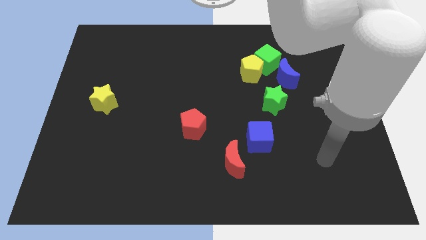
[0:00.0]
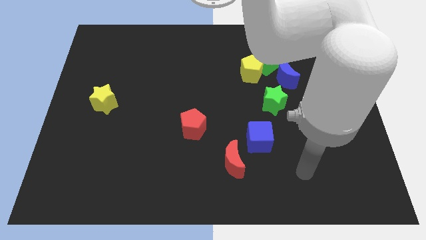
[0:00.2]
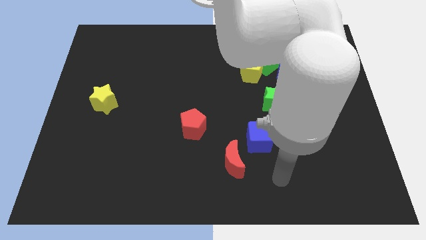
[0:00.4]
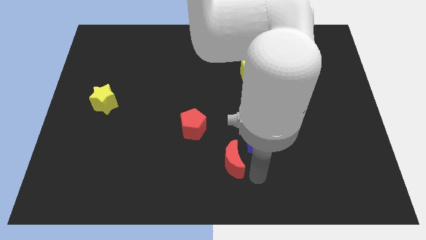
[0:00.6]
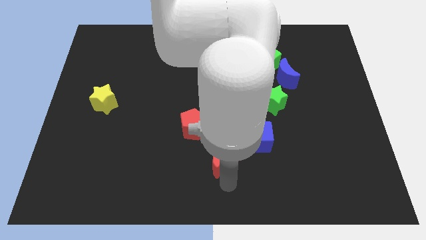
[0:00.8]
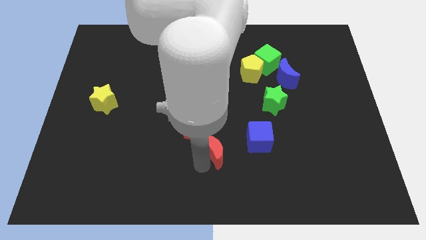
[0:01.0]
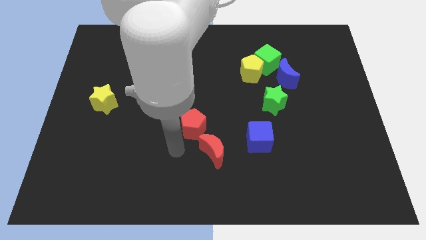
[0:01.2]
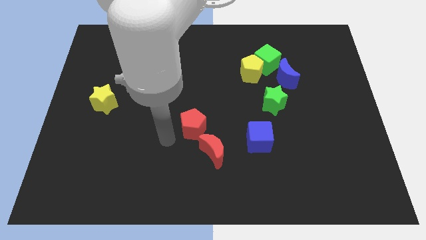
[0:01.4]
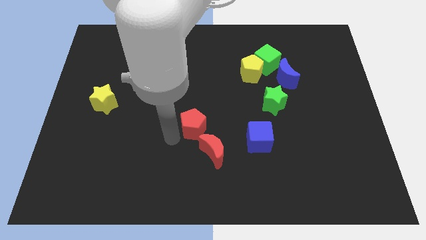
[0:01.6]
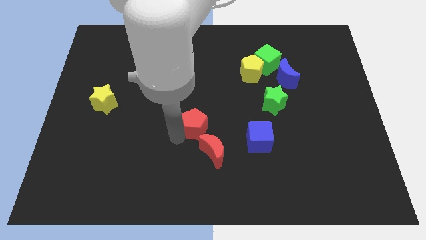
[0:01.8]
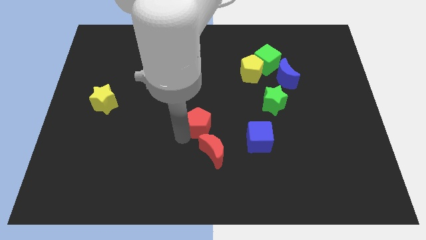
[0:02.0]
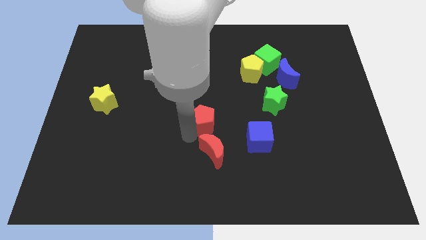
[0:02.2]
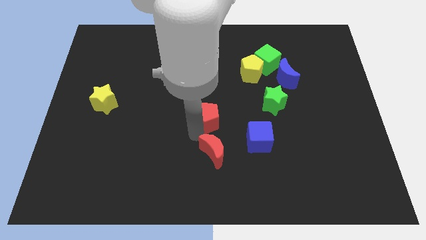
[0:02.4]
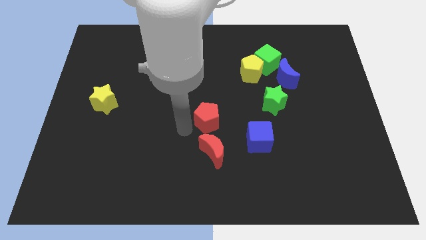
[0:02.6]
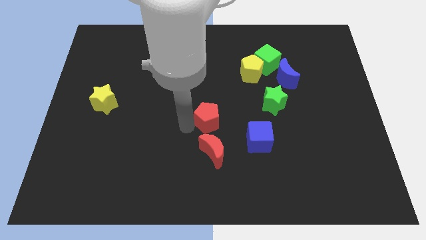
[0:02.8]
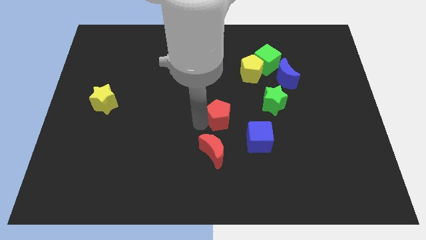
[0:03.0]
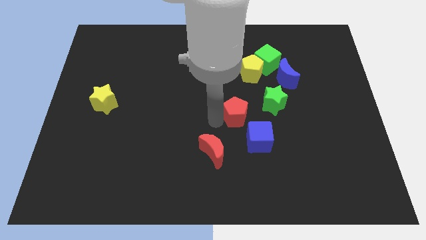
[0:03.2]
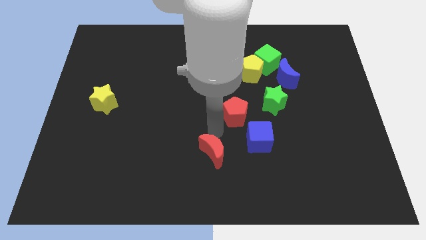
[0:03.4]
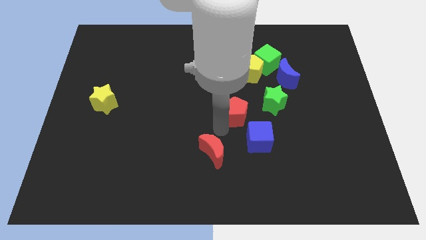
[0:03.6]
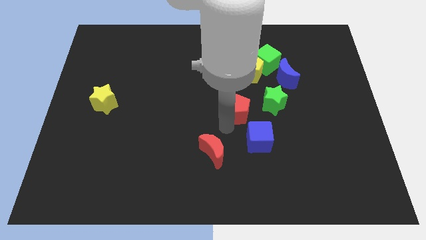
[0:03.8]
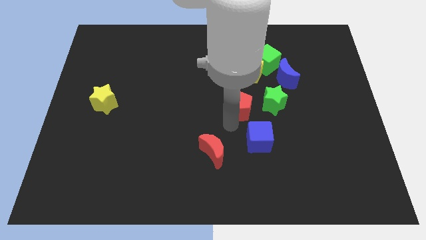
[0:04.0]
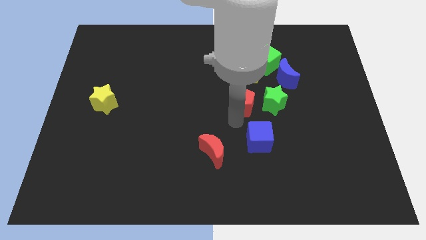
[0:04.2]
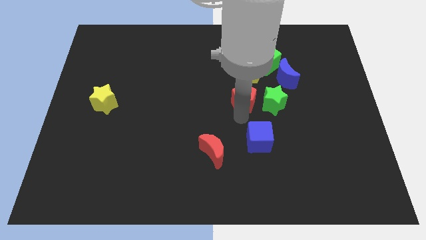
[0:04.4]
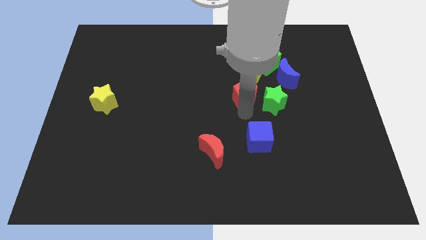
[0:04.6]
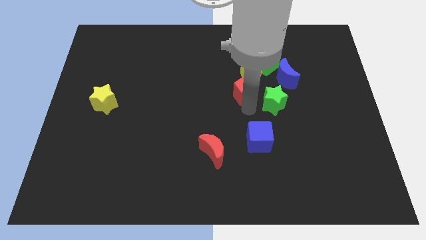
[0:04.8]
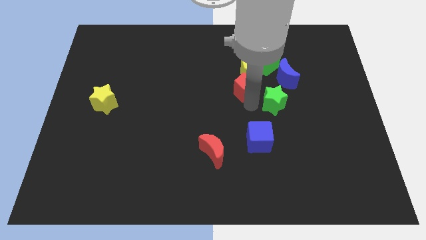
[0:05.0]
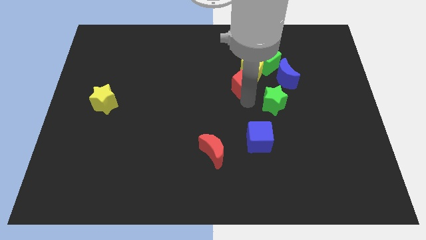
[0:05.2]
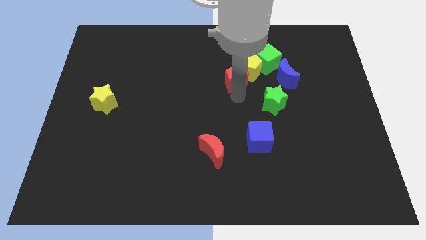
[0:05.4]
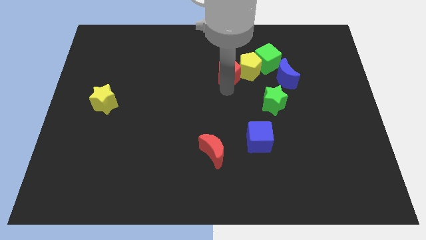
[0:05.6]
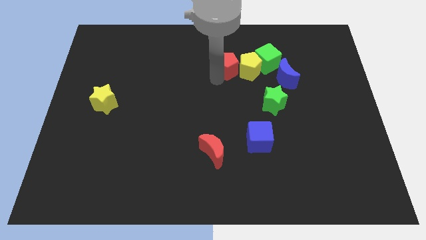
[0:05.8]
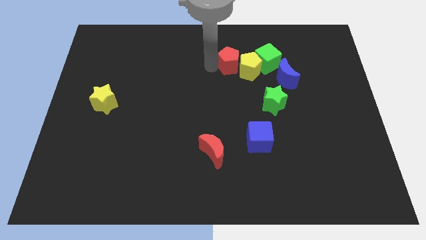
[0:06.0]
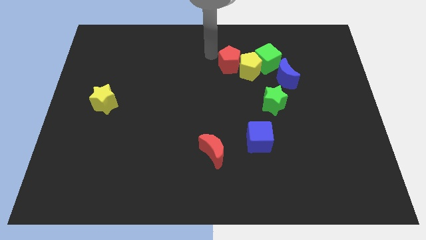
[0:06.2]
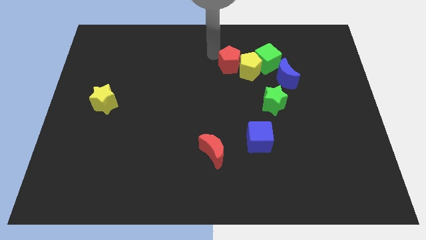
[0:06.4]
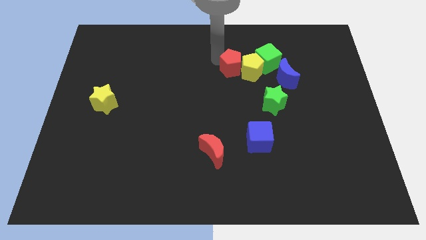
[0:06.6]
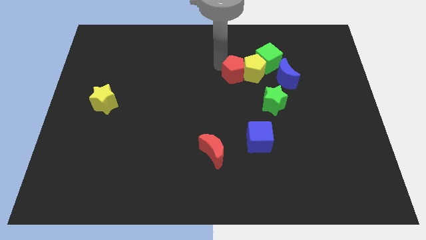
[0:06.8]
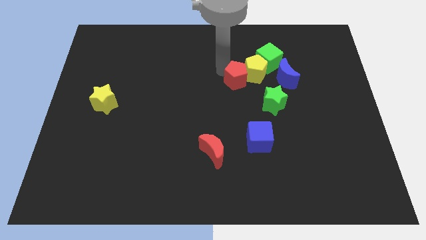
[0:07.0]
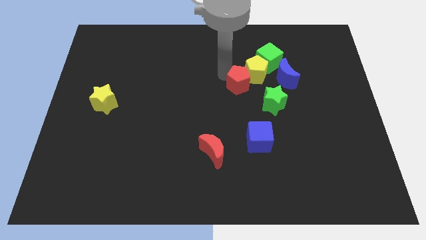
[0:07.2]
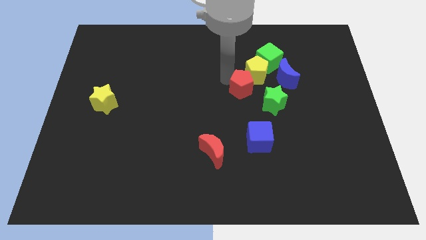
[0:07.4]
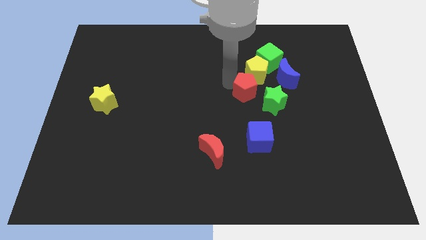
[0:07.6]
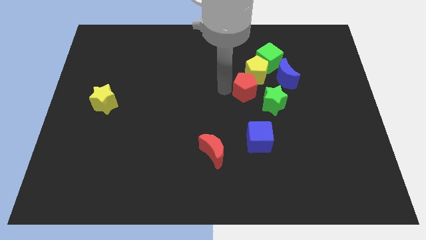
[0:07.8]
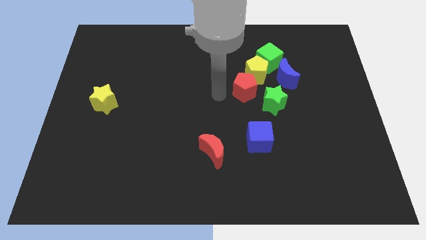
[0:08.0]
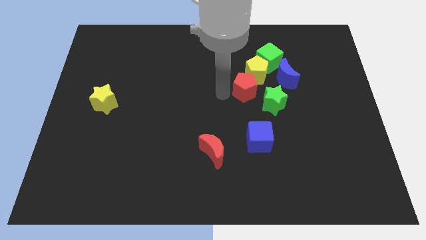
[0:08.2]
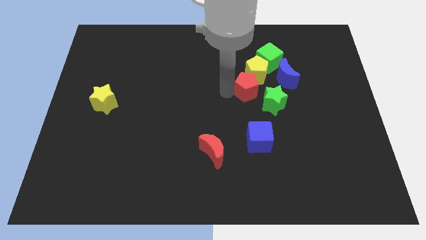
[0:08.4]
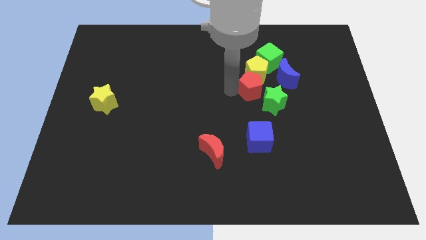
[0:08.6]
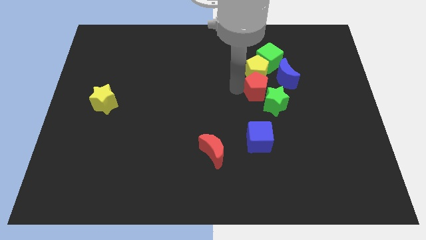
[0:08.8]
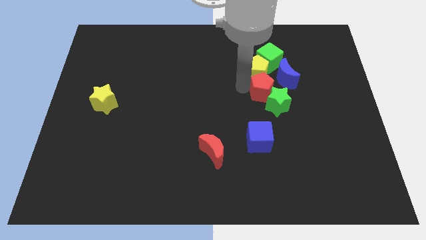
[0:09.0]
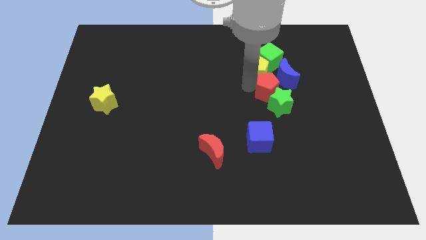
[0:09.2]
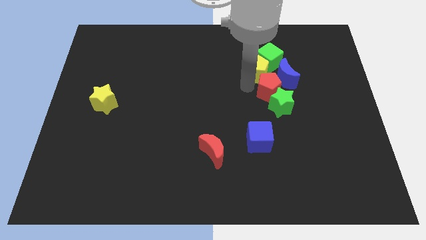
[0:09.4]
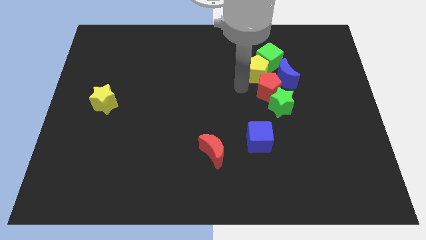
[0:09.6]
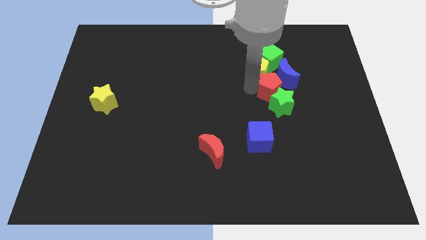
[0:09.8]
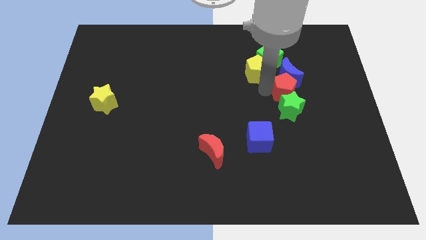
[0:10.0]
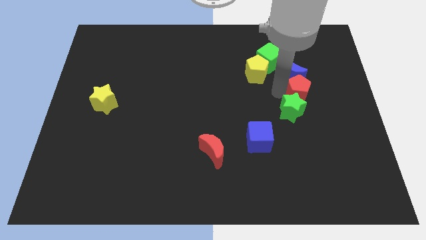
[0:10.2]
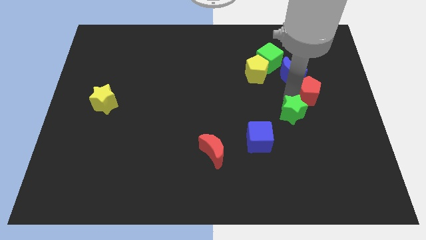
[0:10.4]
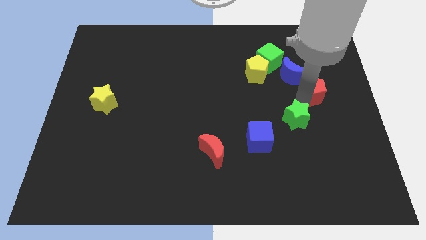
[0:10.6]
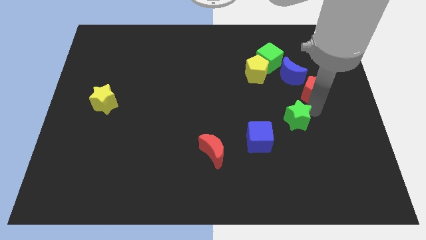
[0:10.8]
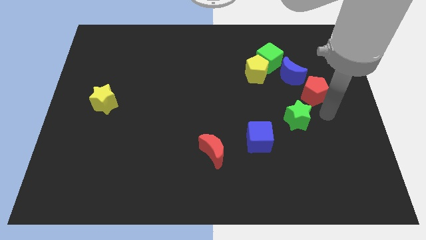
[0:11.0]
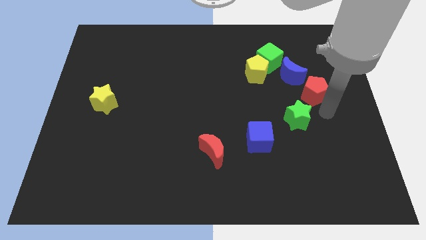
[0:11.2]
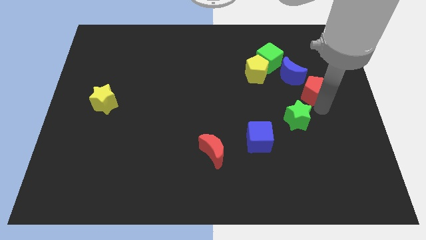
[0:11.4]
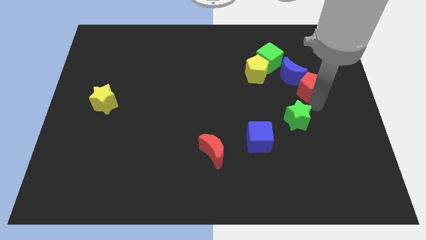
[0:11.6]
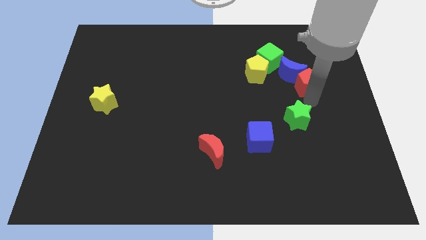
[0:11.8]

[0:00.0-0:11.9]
move the red pentagon just right of the yellow pentagon

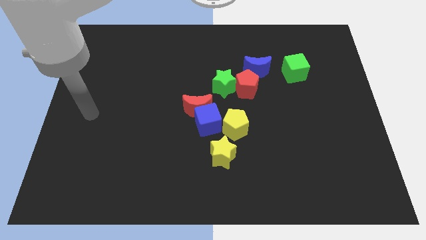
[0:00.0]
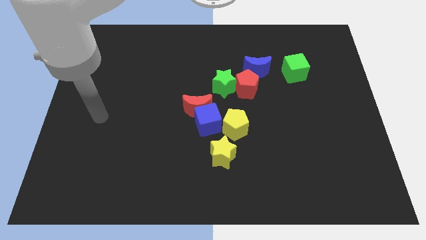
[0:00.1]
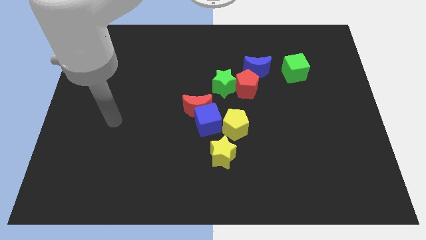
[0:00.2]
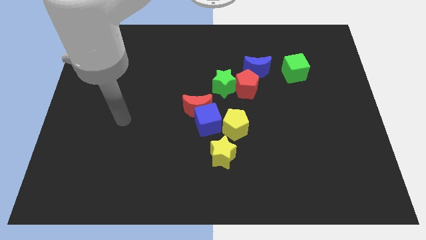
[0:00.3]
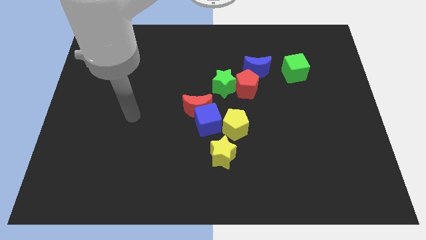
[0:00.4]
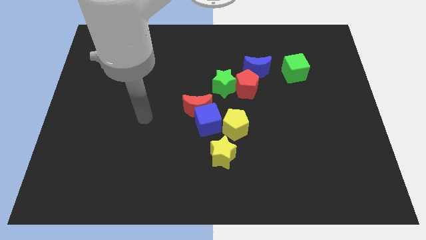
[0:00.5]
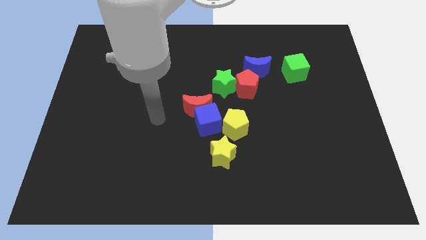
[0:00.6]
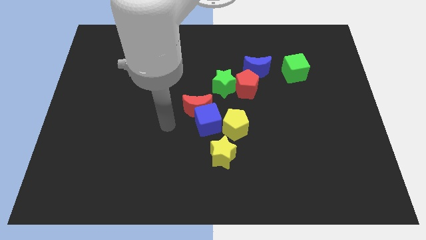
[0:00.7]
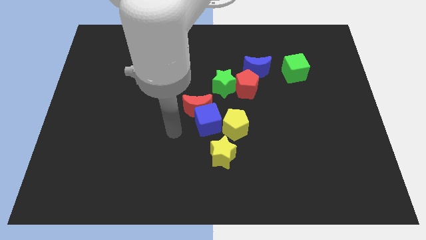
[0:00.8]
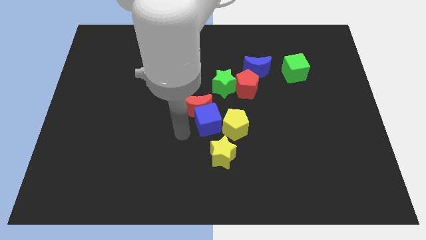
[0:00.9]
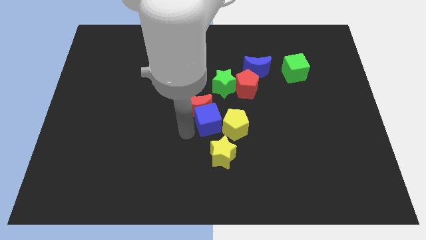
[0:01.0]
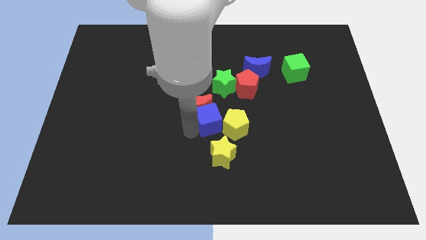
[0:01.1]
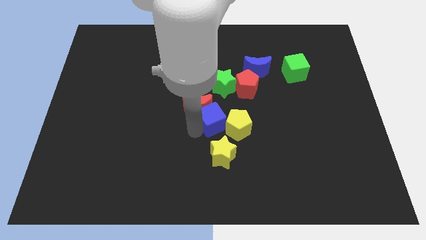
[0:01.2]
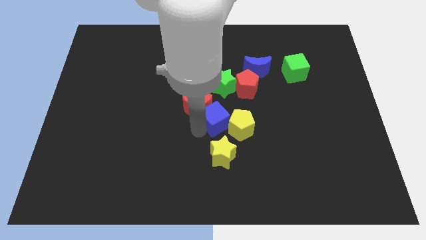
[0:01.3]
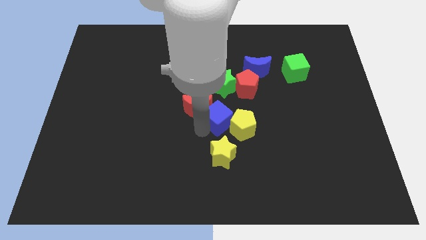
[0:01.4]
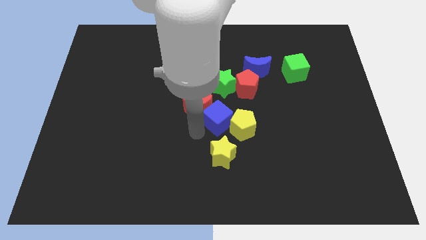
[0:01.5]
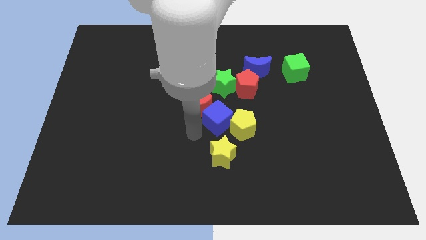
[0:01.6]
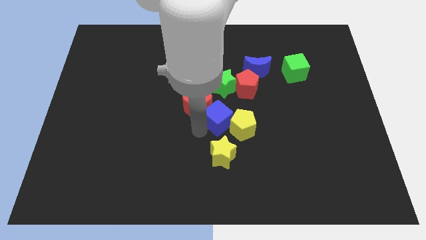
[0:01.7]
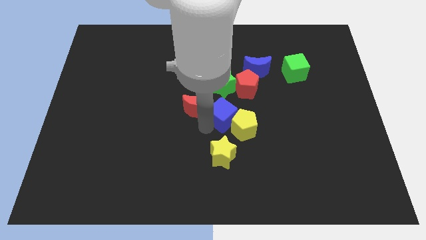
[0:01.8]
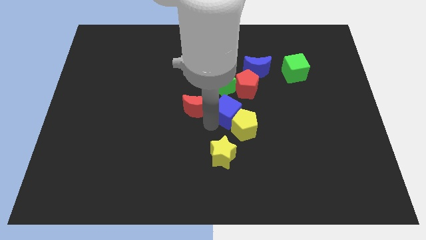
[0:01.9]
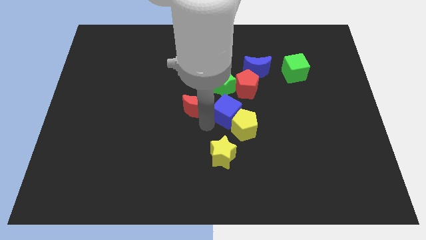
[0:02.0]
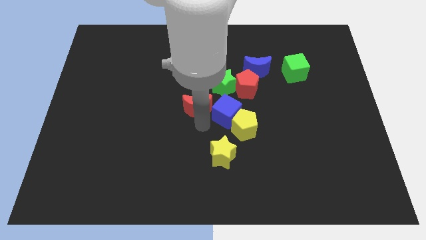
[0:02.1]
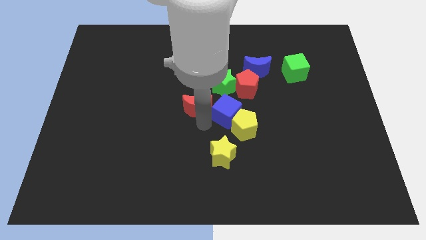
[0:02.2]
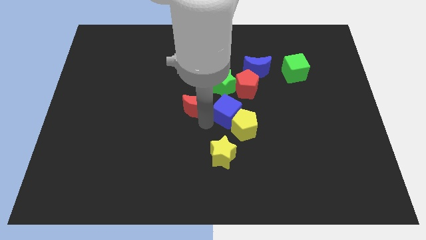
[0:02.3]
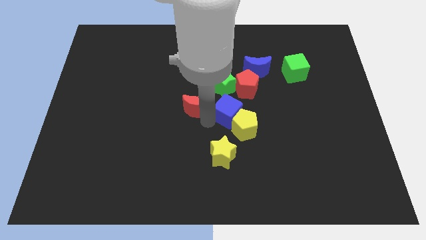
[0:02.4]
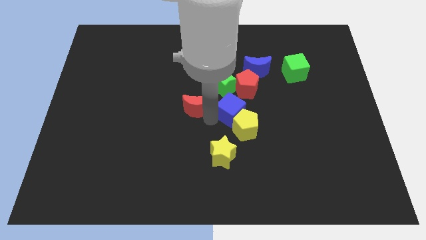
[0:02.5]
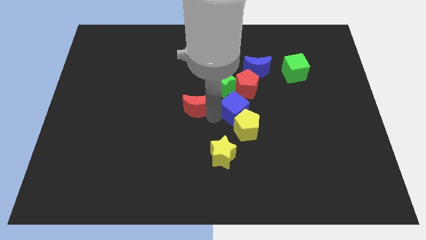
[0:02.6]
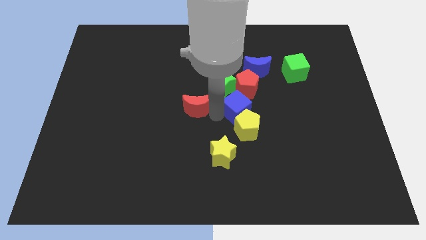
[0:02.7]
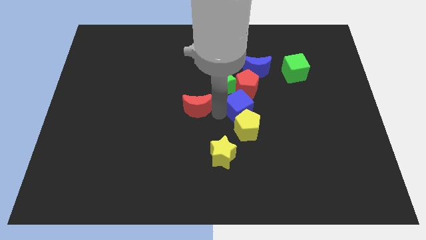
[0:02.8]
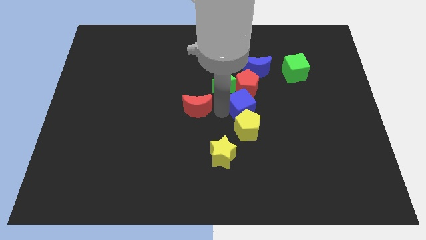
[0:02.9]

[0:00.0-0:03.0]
slide the blue cube below the blue moon
